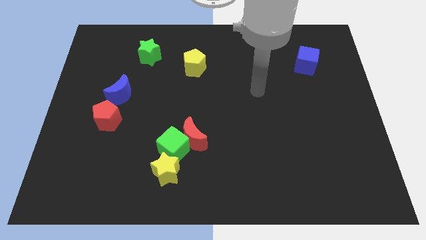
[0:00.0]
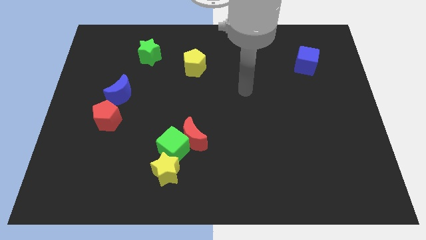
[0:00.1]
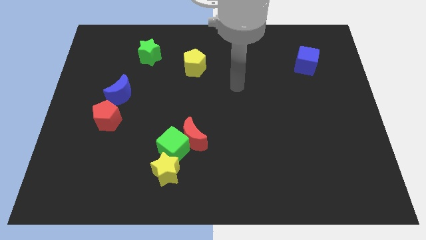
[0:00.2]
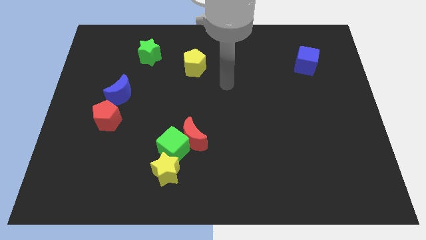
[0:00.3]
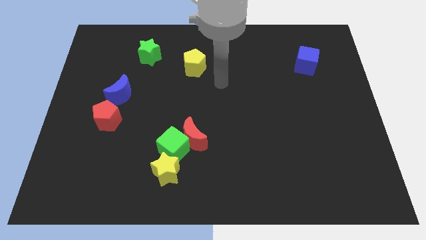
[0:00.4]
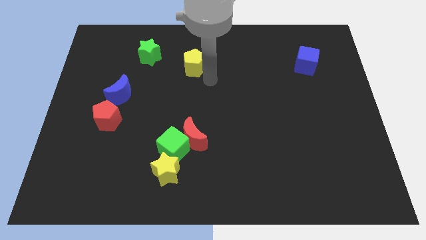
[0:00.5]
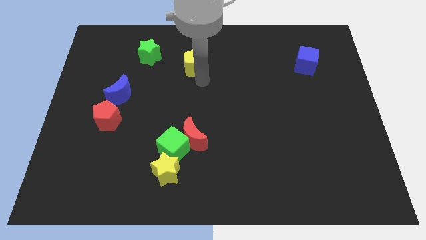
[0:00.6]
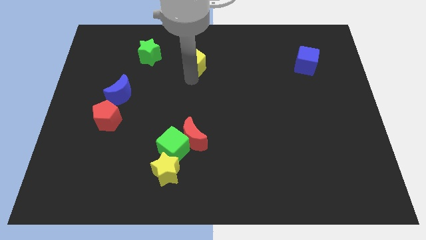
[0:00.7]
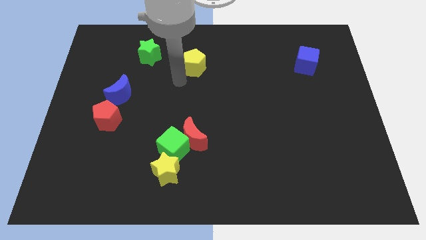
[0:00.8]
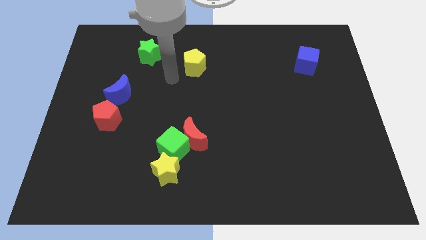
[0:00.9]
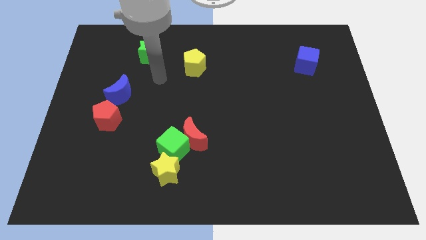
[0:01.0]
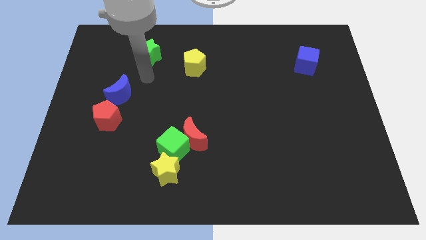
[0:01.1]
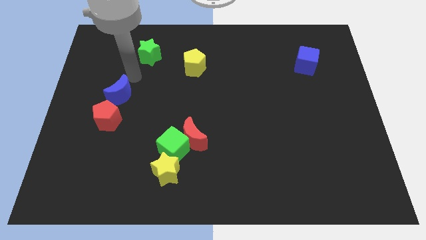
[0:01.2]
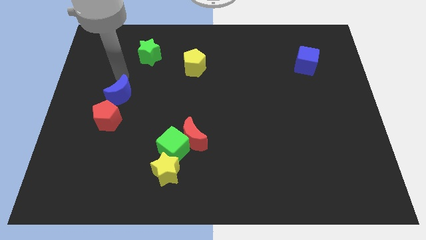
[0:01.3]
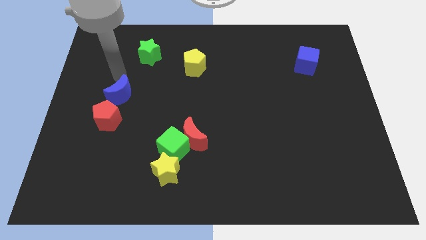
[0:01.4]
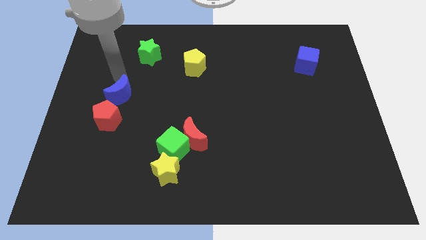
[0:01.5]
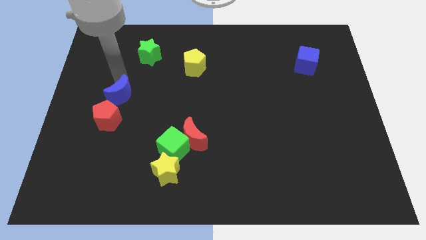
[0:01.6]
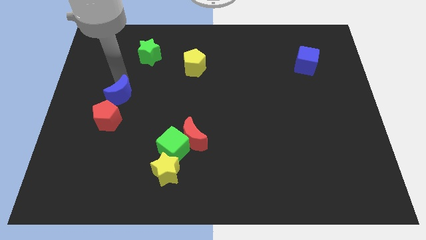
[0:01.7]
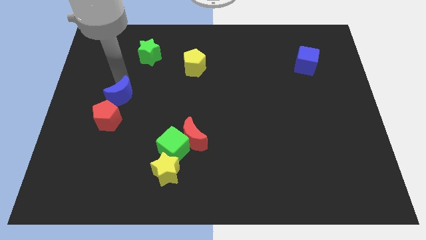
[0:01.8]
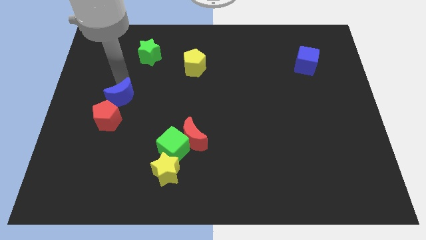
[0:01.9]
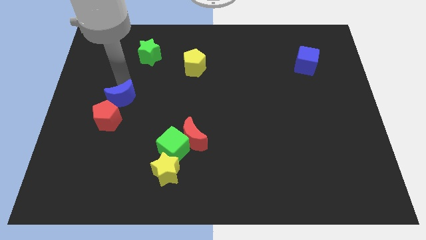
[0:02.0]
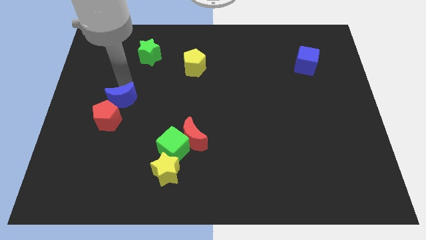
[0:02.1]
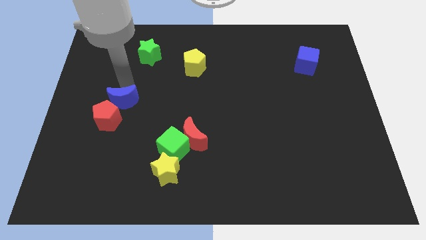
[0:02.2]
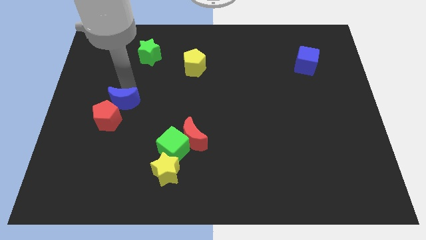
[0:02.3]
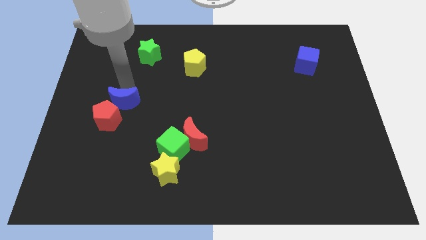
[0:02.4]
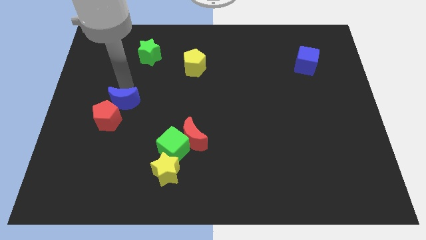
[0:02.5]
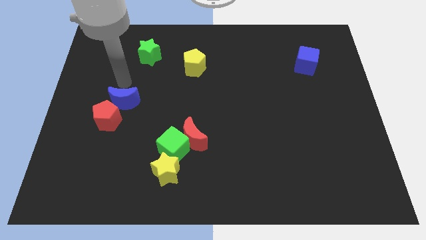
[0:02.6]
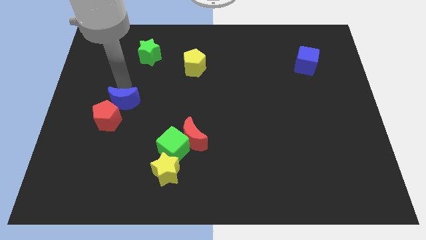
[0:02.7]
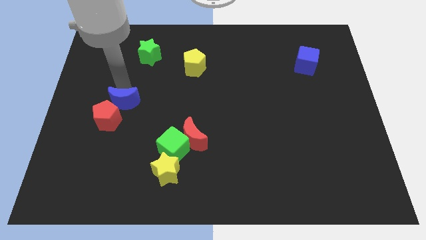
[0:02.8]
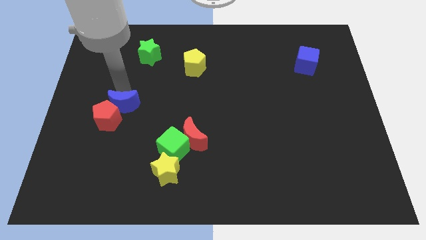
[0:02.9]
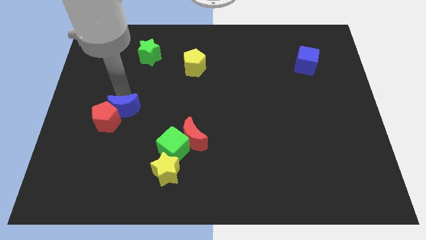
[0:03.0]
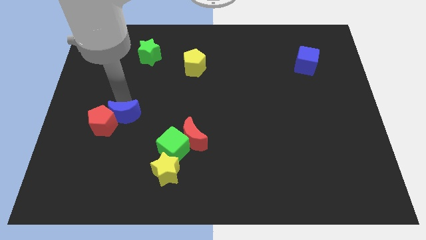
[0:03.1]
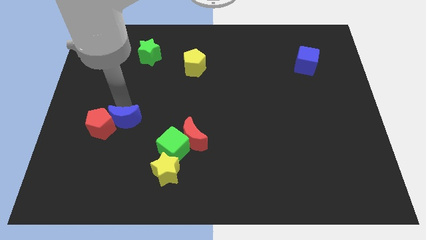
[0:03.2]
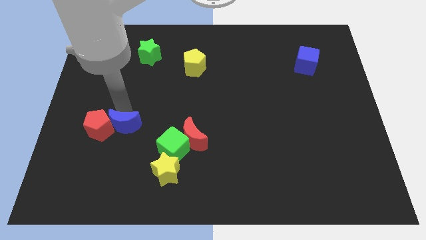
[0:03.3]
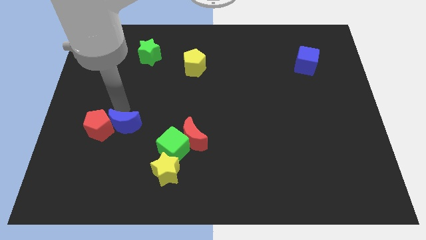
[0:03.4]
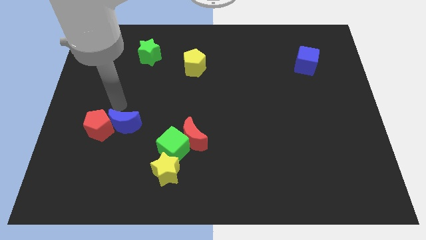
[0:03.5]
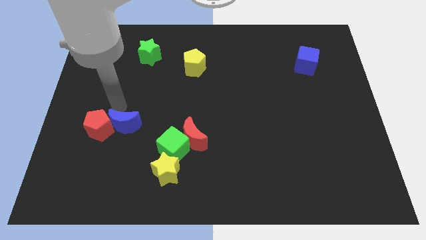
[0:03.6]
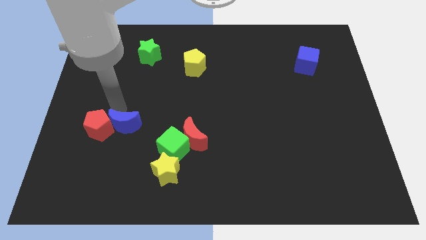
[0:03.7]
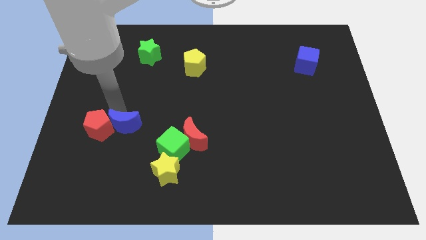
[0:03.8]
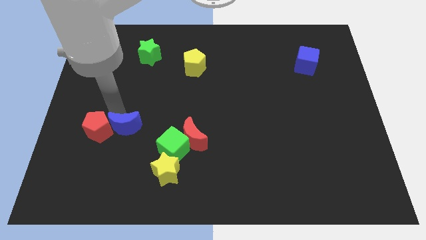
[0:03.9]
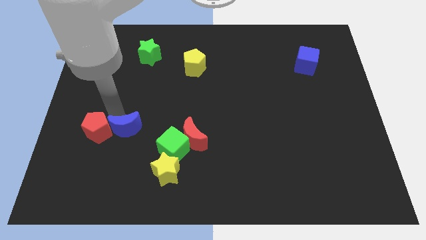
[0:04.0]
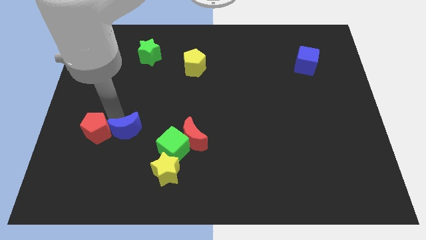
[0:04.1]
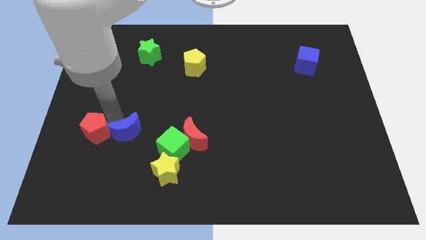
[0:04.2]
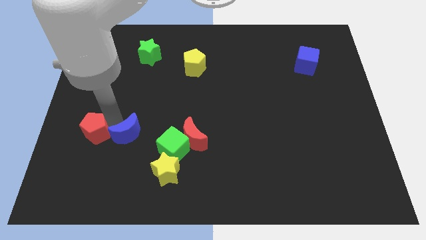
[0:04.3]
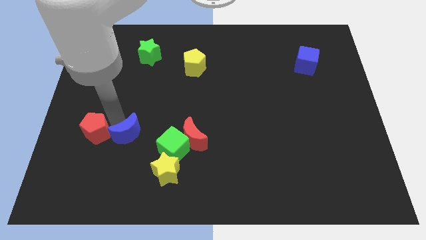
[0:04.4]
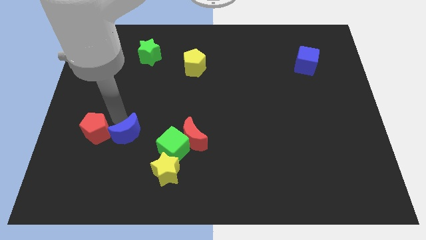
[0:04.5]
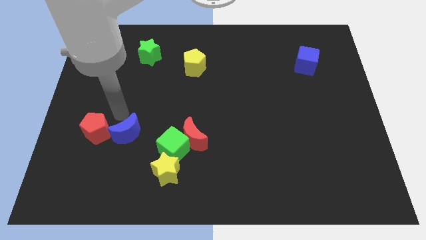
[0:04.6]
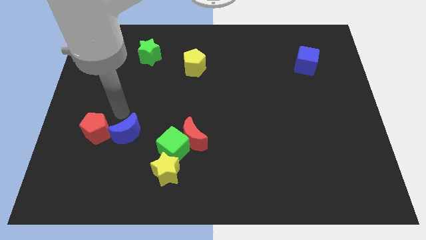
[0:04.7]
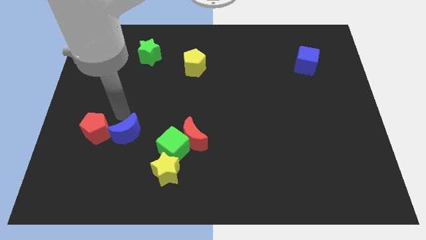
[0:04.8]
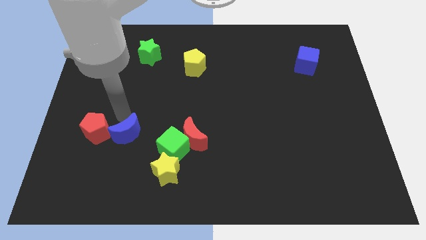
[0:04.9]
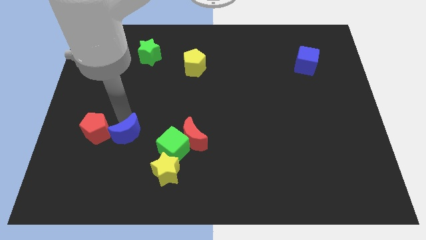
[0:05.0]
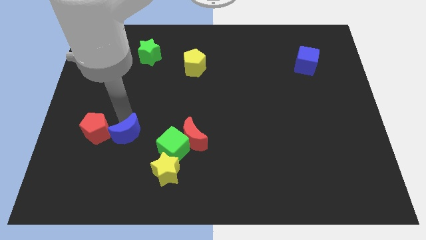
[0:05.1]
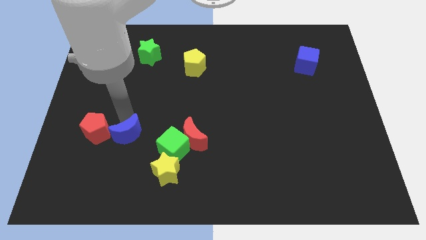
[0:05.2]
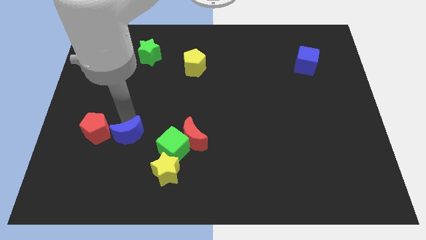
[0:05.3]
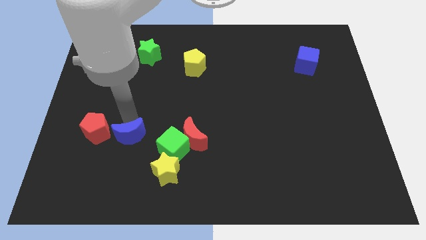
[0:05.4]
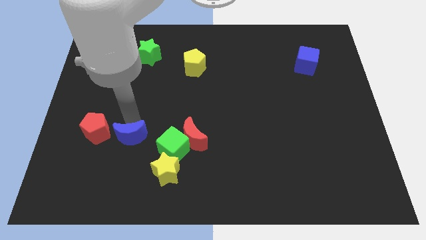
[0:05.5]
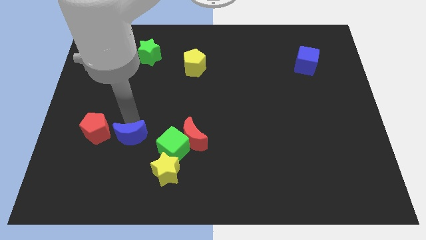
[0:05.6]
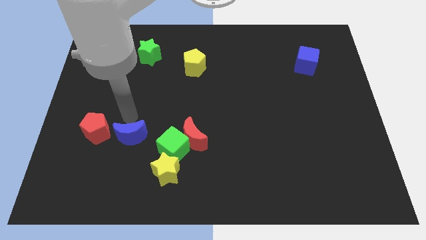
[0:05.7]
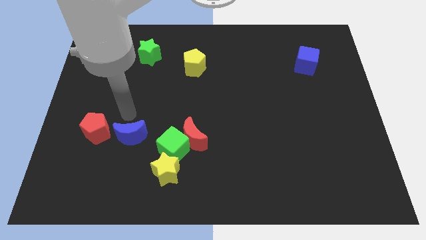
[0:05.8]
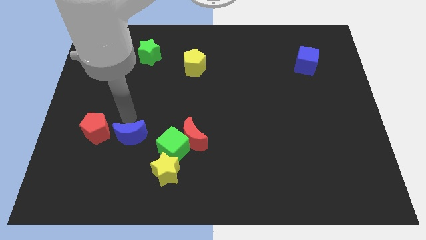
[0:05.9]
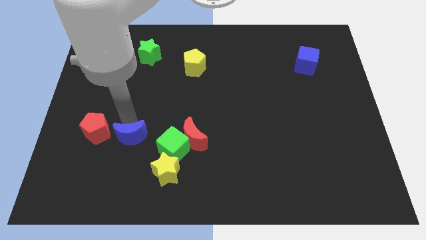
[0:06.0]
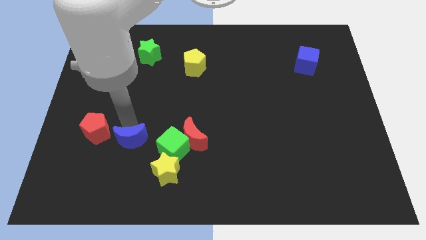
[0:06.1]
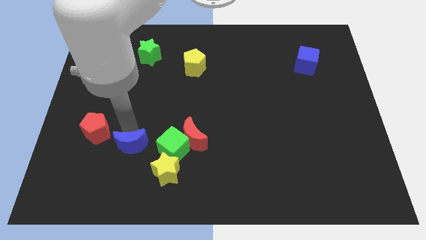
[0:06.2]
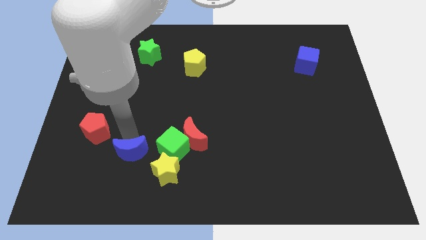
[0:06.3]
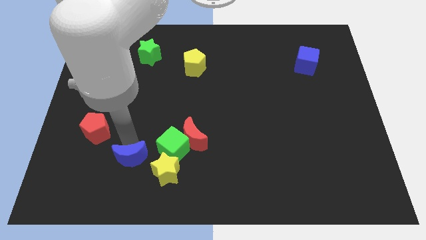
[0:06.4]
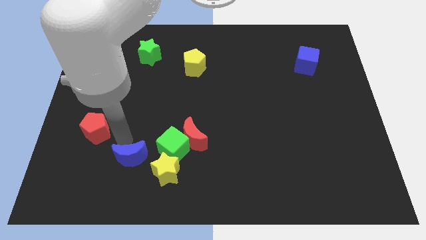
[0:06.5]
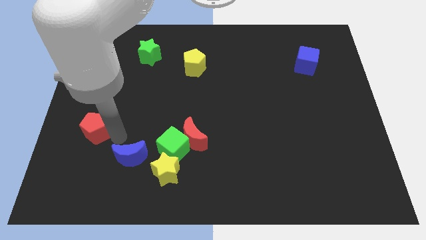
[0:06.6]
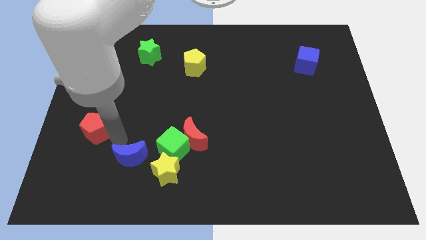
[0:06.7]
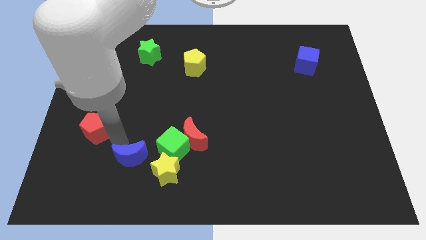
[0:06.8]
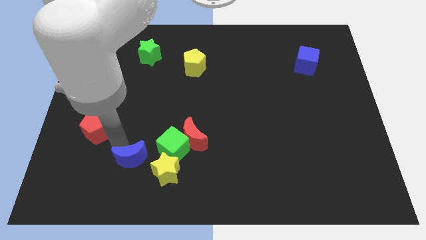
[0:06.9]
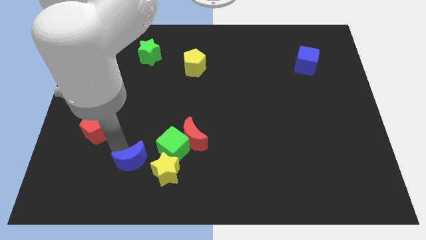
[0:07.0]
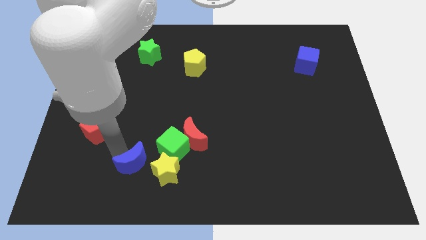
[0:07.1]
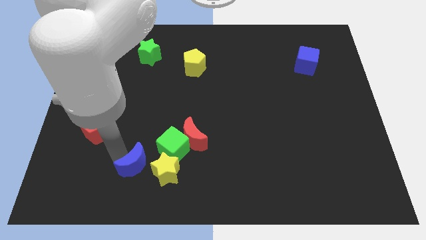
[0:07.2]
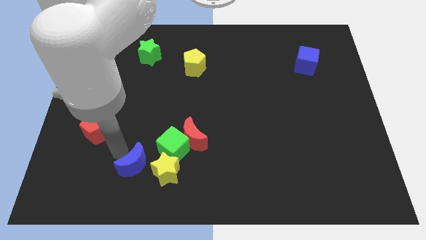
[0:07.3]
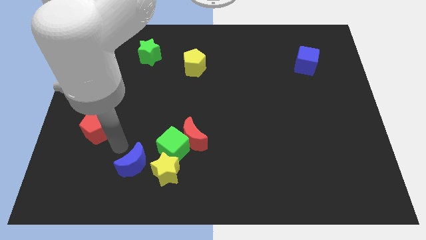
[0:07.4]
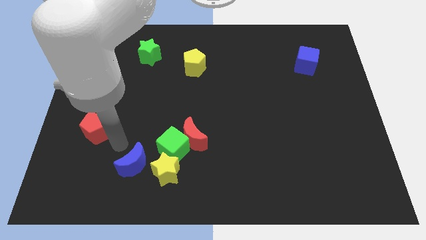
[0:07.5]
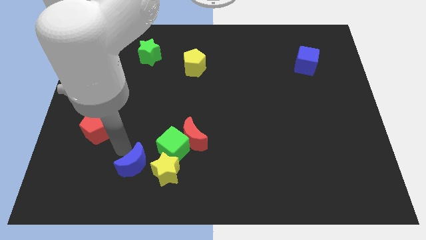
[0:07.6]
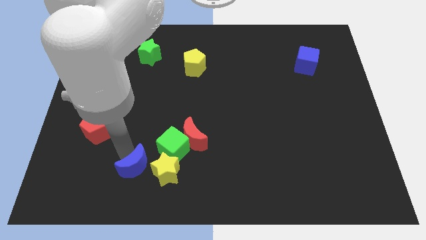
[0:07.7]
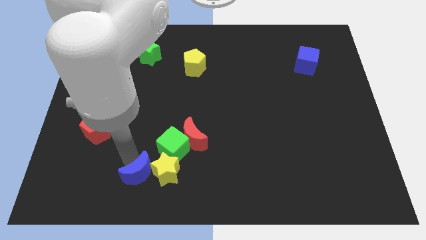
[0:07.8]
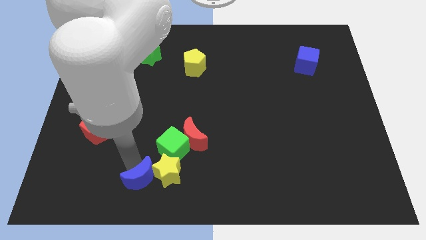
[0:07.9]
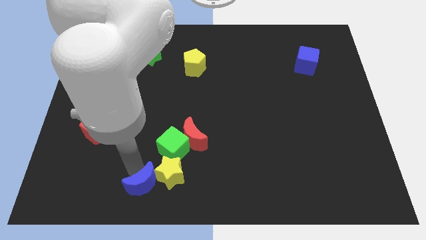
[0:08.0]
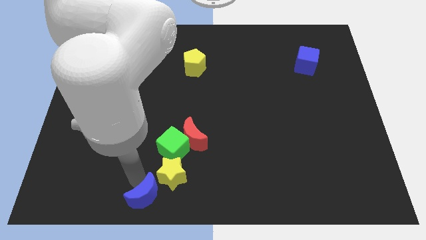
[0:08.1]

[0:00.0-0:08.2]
push the blue moon to the bottom
